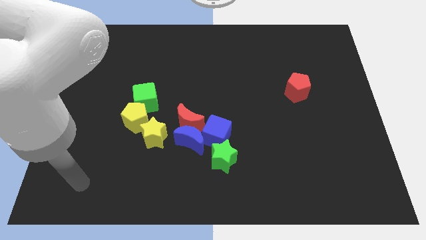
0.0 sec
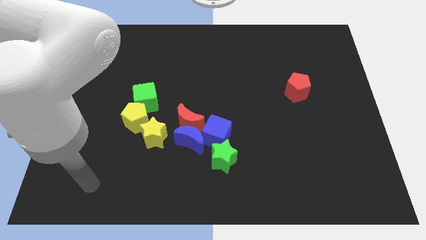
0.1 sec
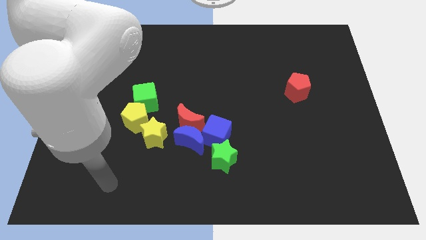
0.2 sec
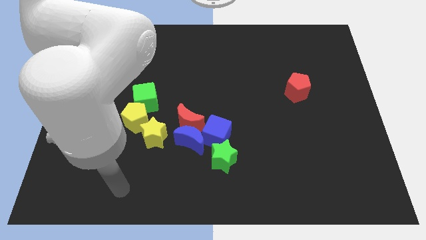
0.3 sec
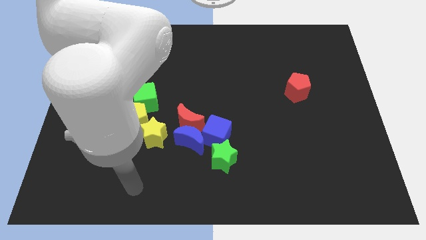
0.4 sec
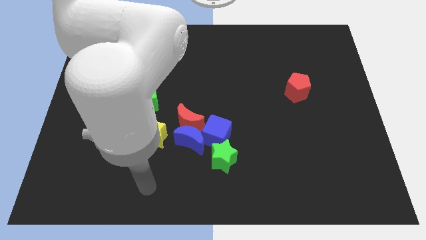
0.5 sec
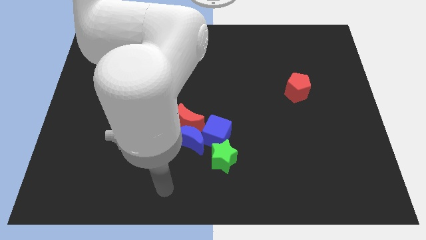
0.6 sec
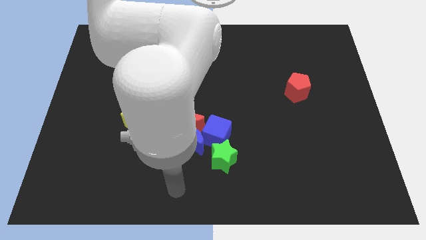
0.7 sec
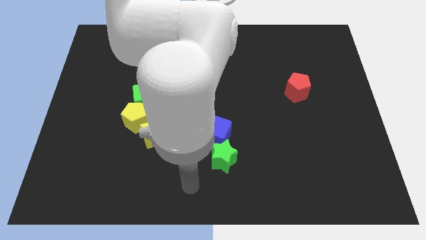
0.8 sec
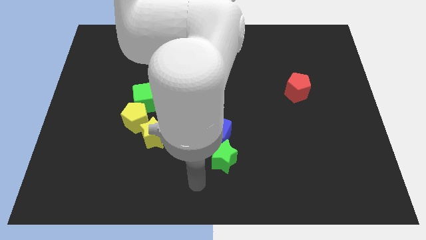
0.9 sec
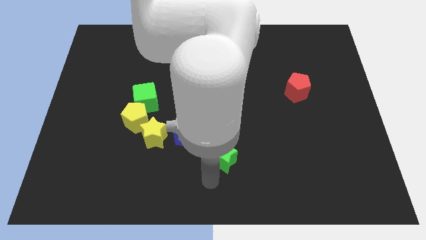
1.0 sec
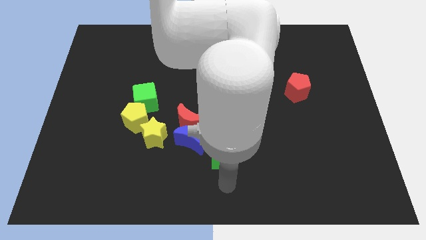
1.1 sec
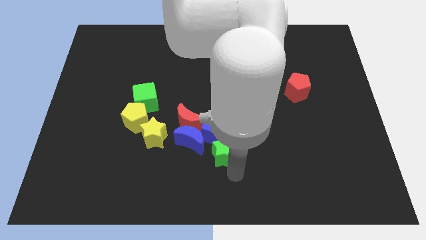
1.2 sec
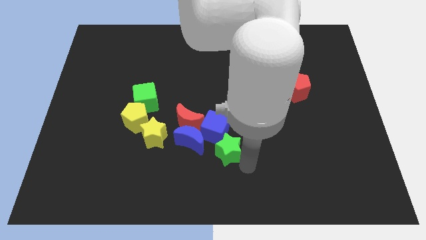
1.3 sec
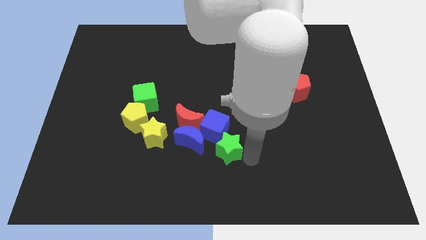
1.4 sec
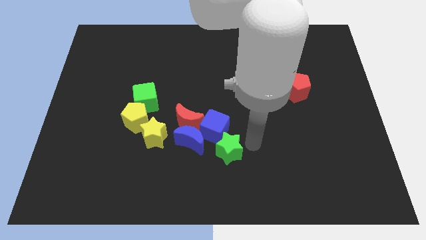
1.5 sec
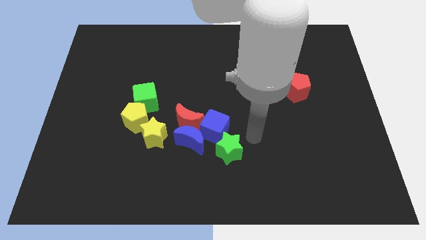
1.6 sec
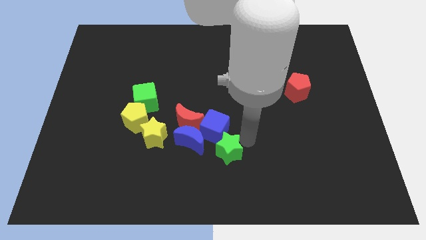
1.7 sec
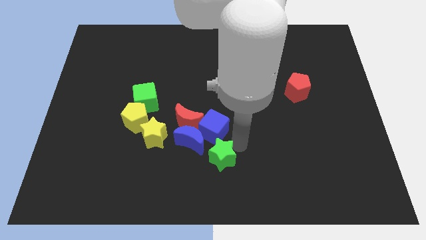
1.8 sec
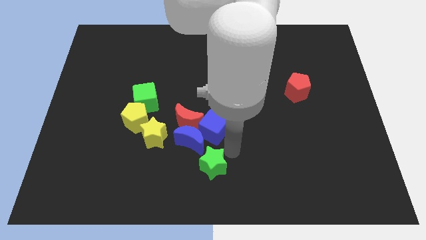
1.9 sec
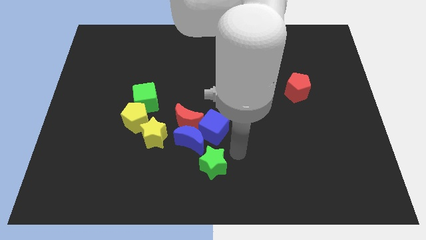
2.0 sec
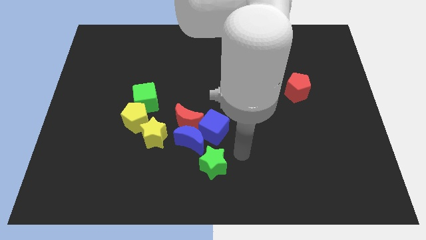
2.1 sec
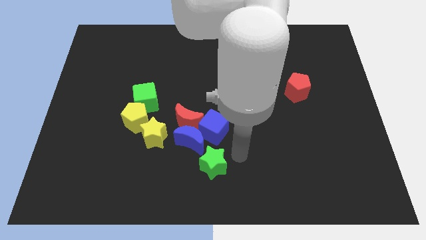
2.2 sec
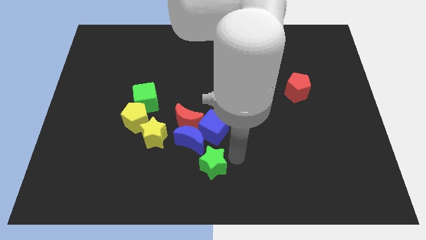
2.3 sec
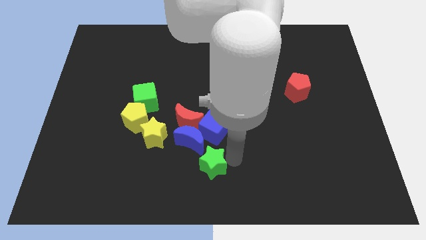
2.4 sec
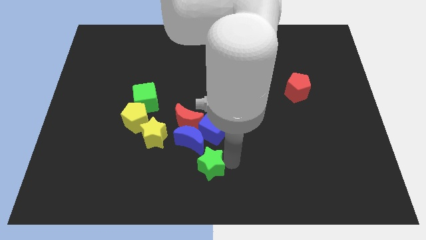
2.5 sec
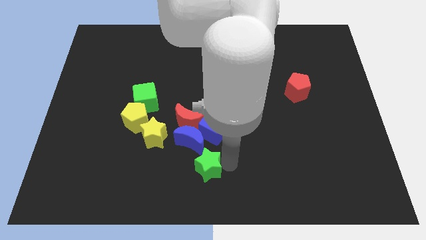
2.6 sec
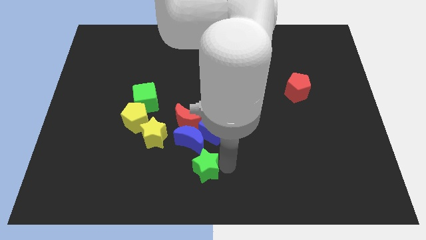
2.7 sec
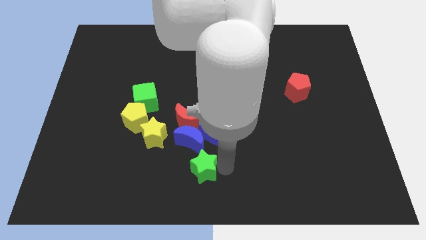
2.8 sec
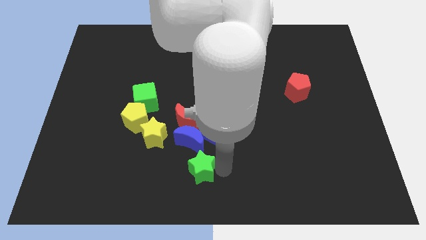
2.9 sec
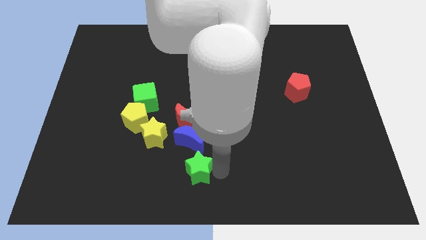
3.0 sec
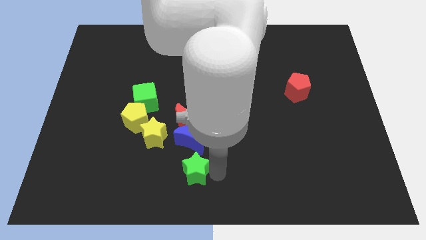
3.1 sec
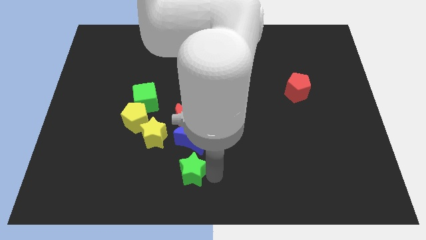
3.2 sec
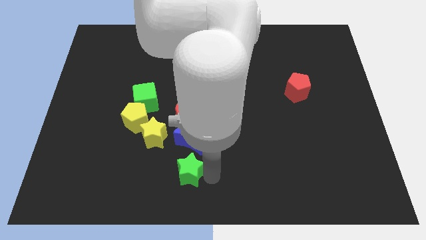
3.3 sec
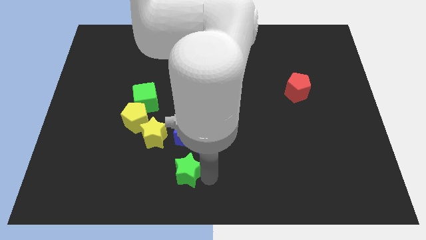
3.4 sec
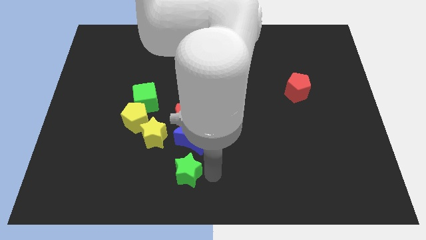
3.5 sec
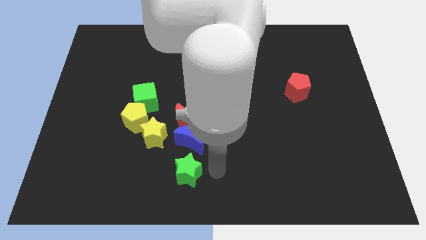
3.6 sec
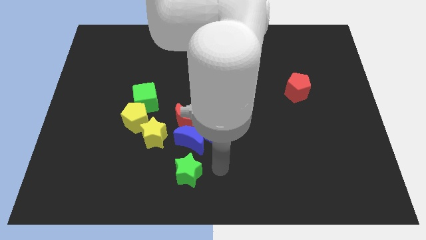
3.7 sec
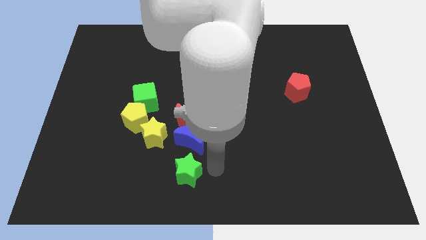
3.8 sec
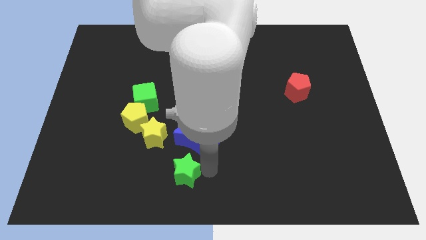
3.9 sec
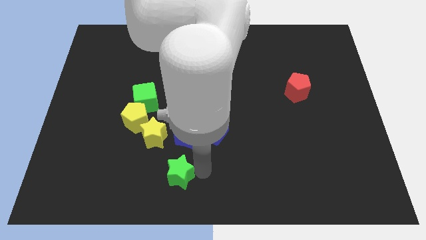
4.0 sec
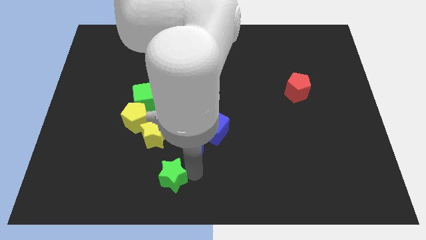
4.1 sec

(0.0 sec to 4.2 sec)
slide the green star below the yellow star

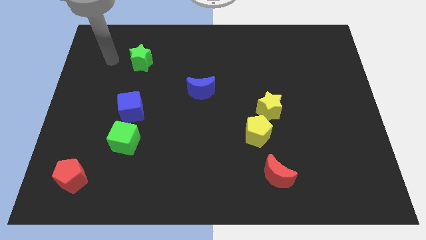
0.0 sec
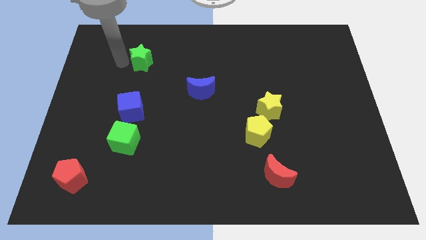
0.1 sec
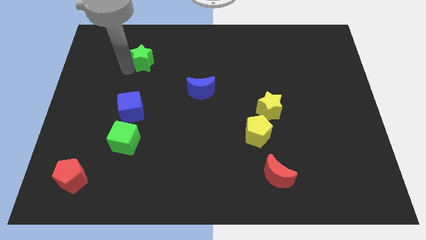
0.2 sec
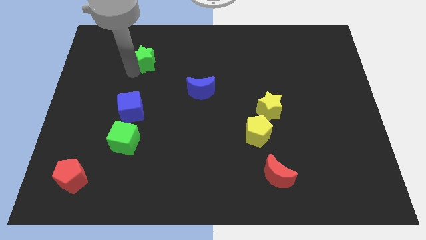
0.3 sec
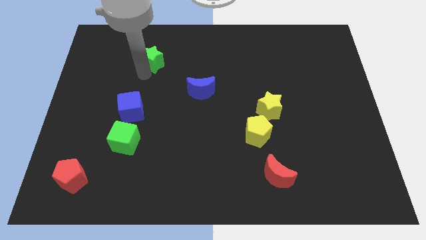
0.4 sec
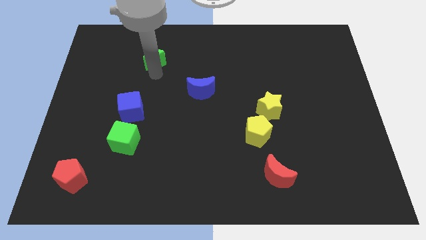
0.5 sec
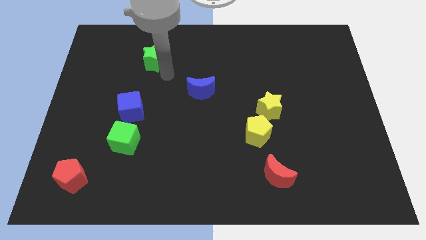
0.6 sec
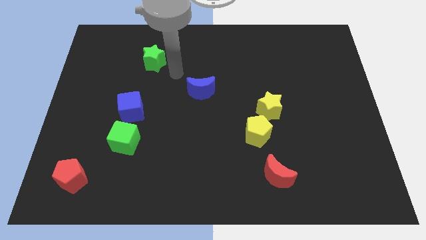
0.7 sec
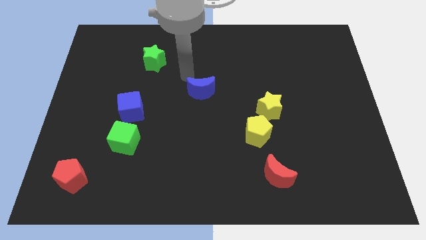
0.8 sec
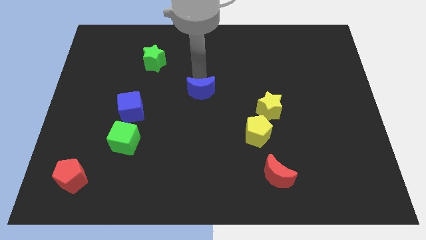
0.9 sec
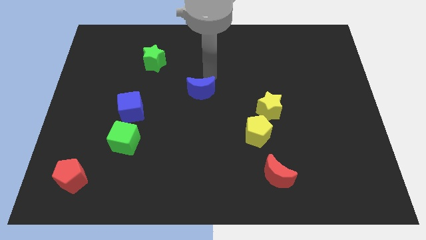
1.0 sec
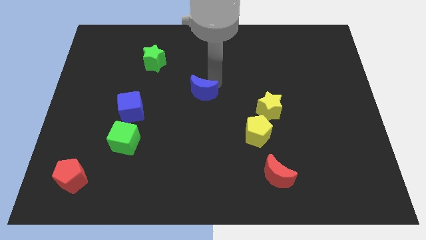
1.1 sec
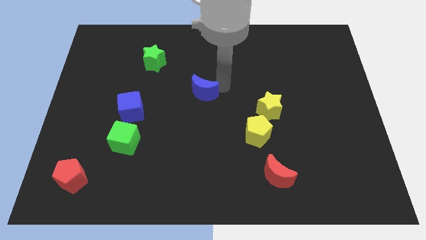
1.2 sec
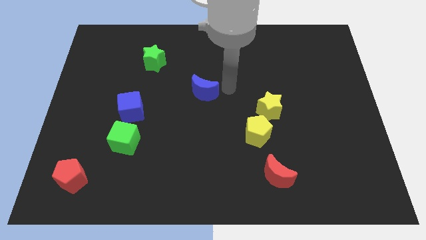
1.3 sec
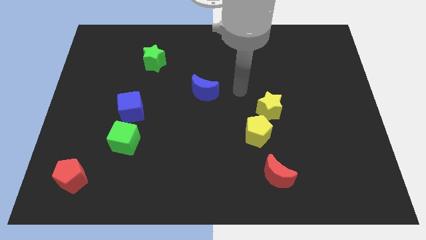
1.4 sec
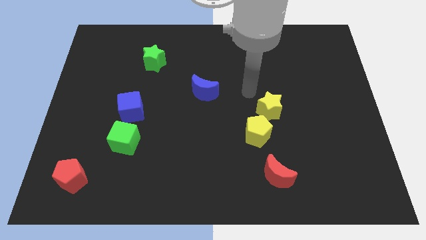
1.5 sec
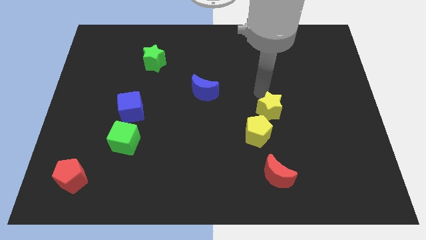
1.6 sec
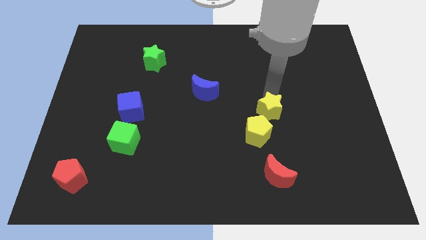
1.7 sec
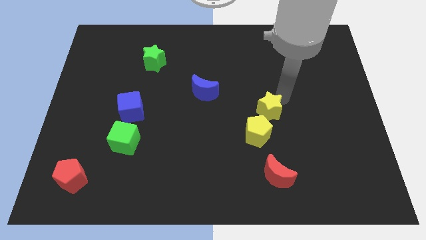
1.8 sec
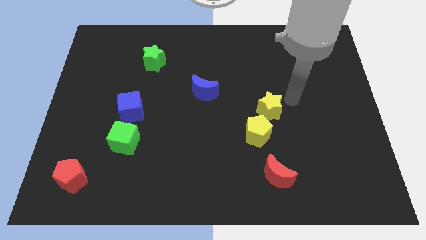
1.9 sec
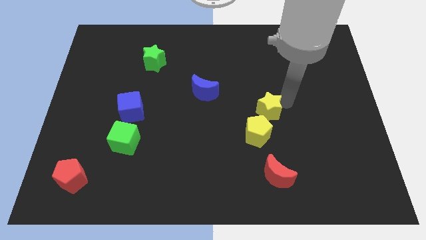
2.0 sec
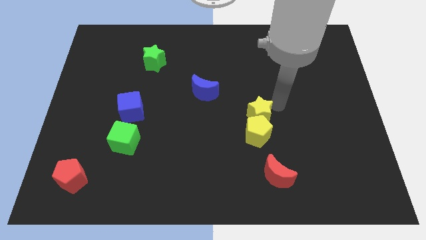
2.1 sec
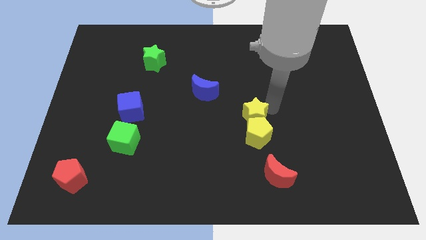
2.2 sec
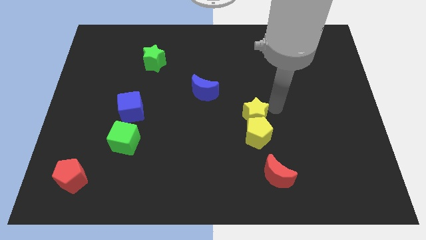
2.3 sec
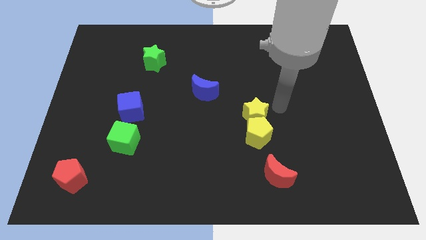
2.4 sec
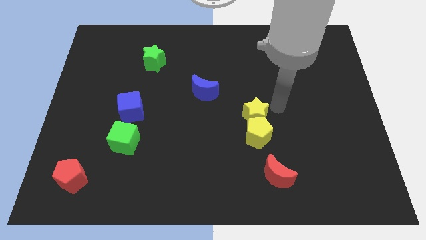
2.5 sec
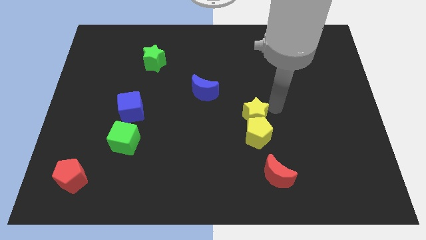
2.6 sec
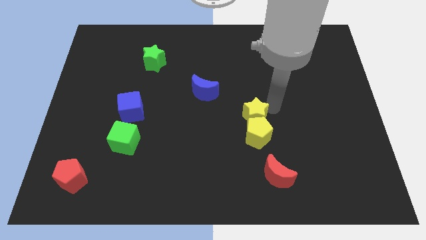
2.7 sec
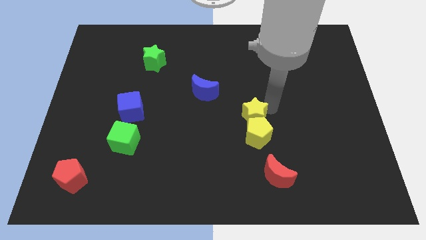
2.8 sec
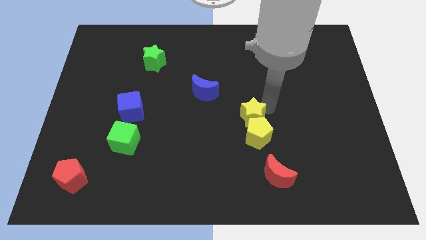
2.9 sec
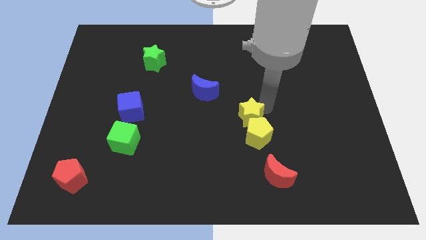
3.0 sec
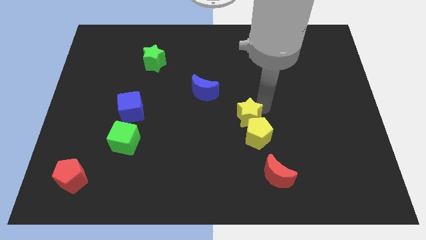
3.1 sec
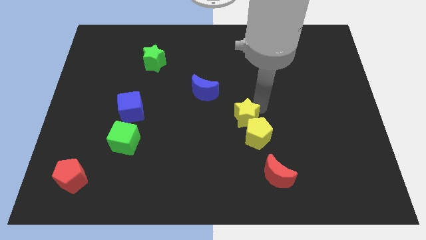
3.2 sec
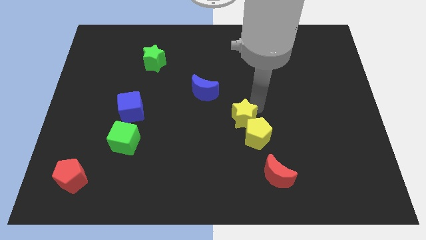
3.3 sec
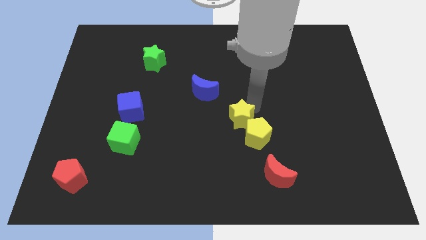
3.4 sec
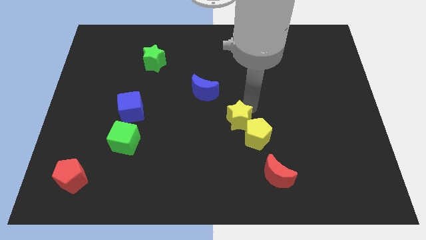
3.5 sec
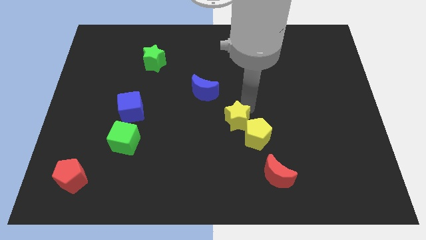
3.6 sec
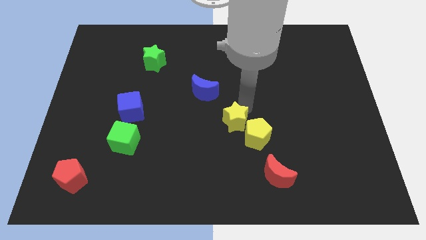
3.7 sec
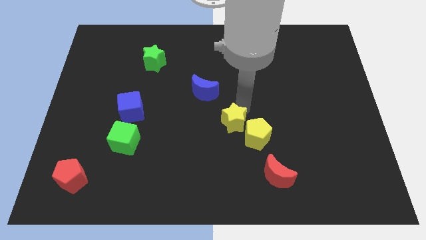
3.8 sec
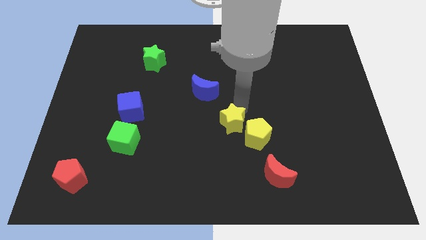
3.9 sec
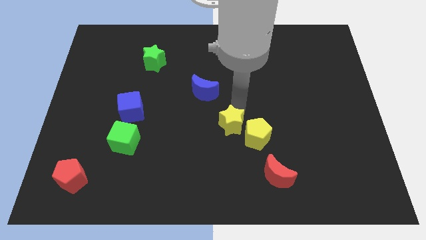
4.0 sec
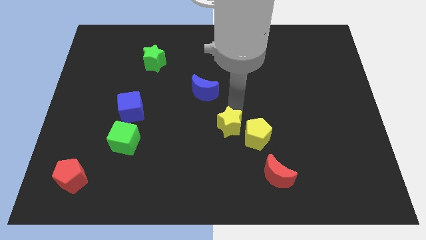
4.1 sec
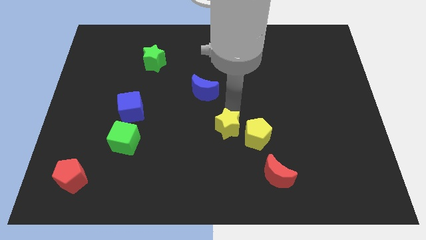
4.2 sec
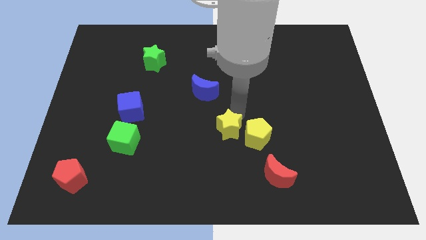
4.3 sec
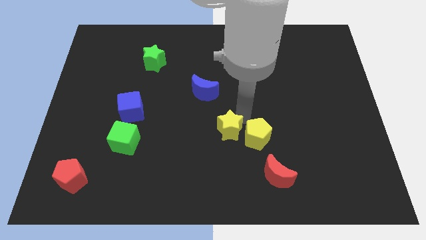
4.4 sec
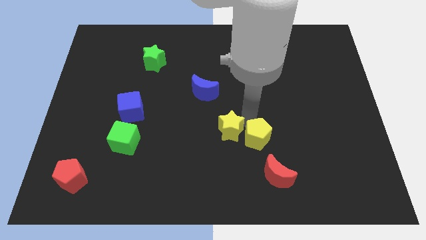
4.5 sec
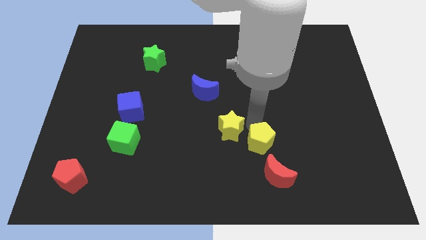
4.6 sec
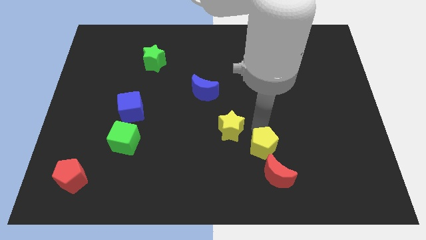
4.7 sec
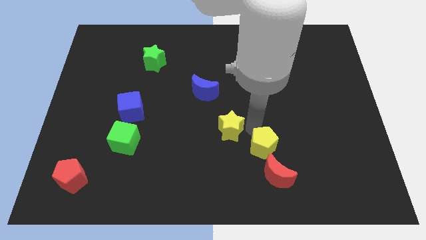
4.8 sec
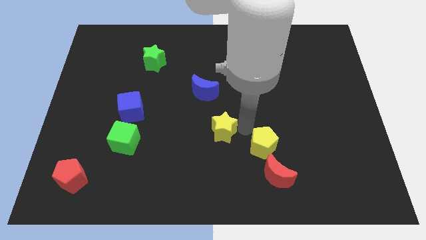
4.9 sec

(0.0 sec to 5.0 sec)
slide the yellow star to the bottom of the blue moon
